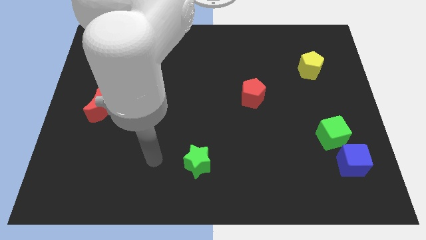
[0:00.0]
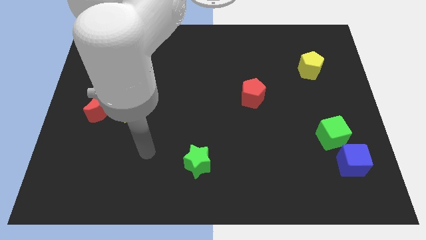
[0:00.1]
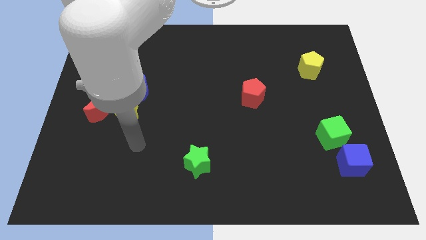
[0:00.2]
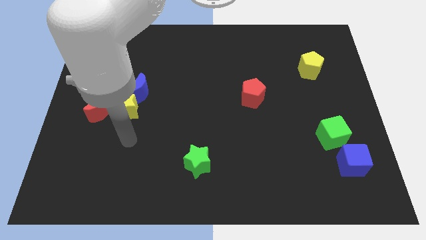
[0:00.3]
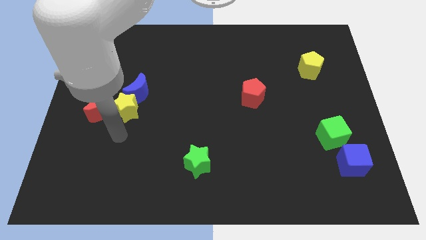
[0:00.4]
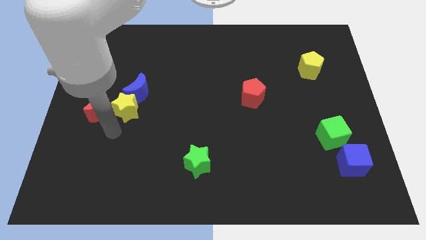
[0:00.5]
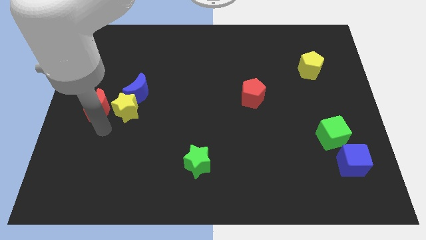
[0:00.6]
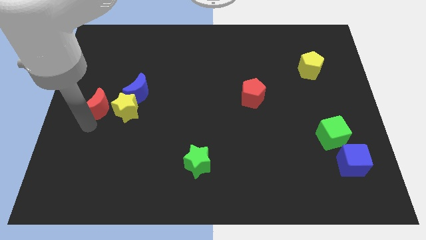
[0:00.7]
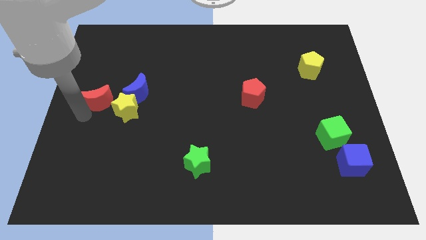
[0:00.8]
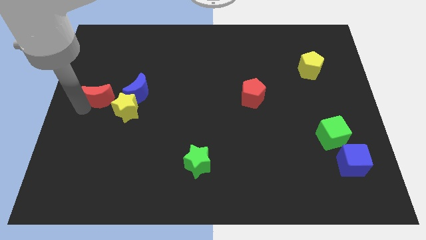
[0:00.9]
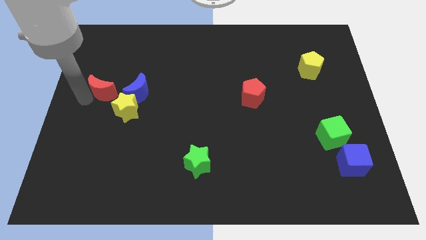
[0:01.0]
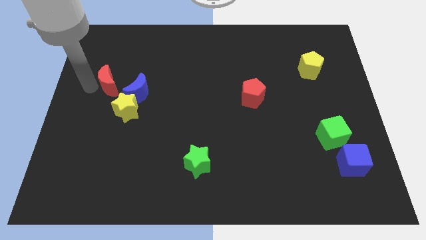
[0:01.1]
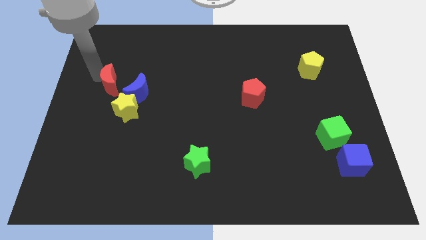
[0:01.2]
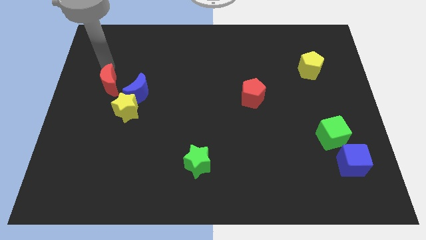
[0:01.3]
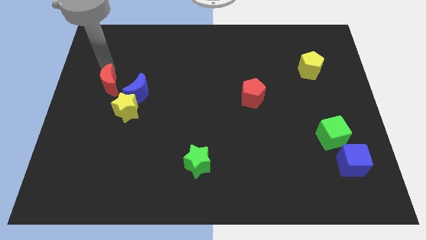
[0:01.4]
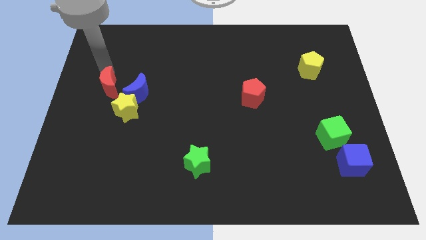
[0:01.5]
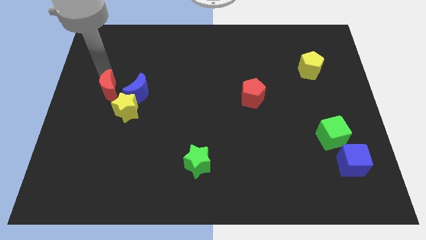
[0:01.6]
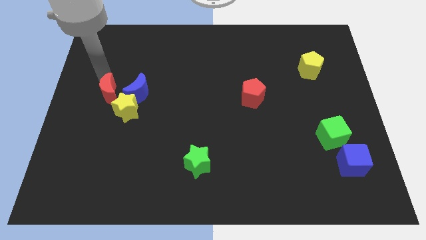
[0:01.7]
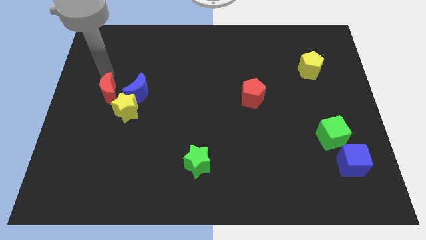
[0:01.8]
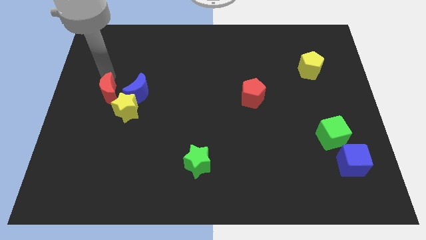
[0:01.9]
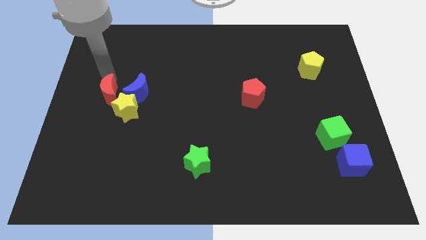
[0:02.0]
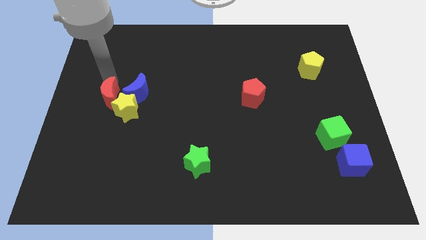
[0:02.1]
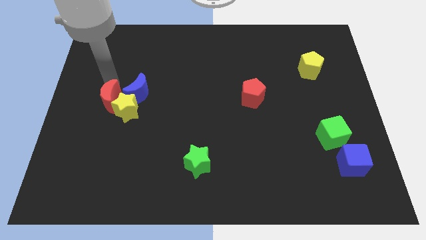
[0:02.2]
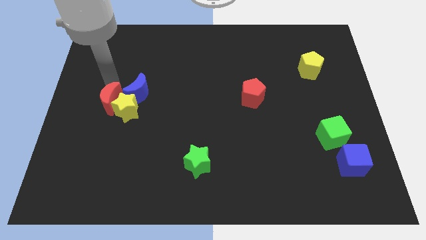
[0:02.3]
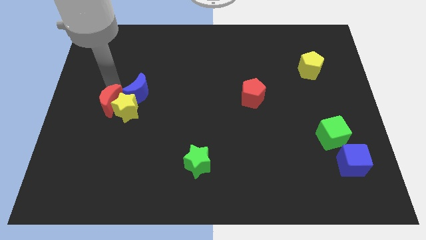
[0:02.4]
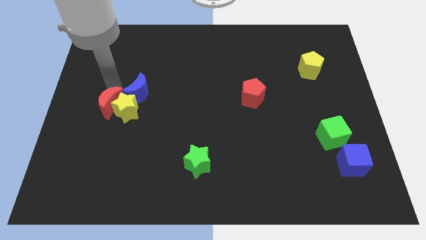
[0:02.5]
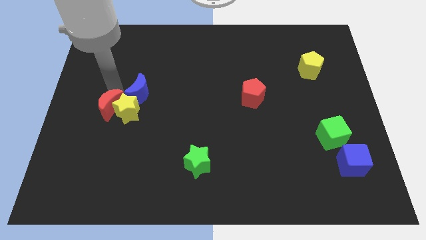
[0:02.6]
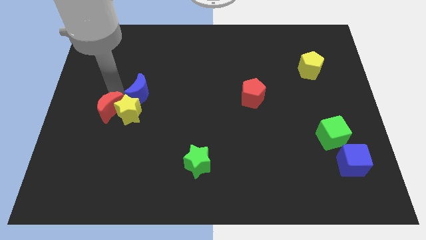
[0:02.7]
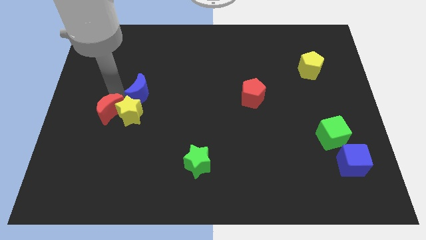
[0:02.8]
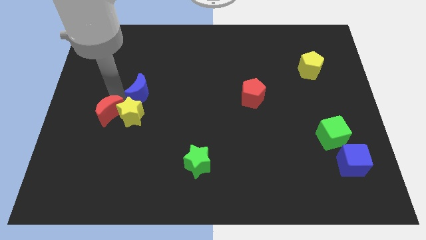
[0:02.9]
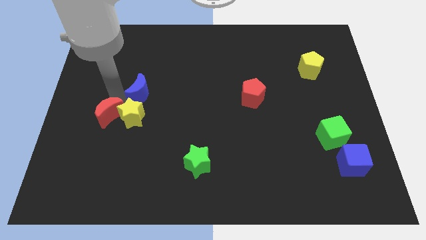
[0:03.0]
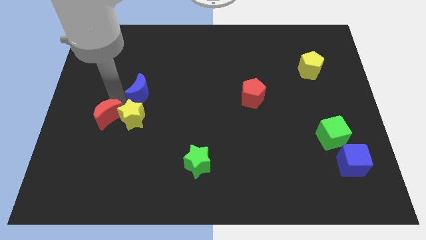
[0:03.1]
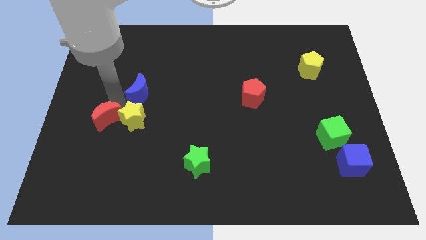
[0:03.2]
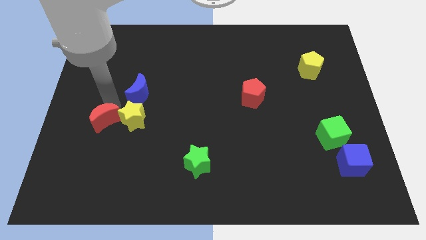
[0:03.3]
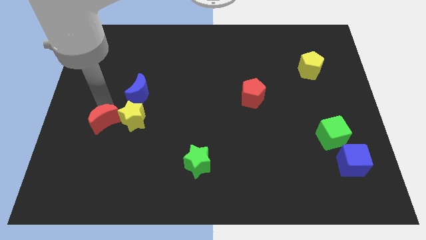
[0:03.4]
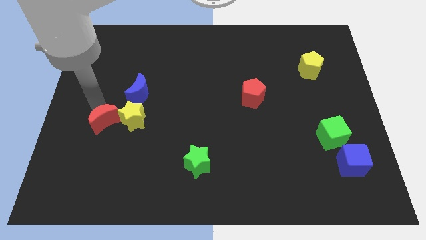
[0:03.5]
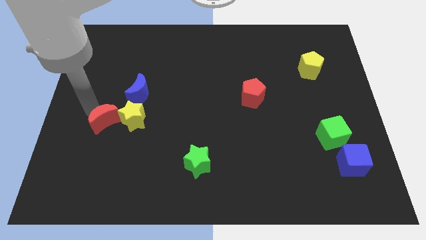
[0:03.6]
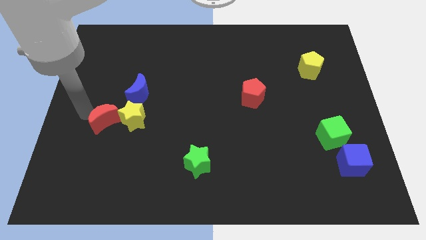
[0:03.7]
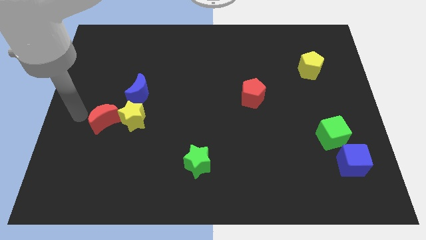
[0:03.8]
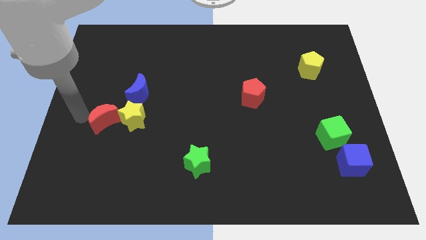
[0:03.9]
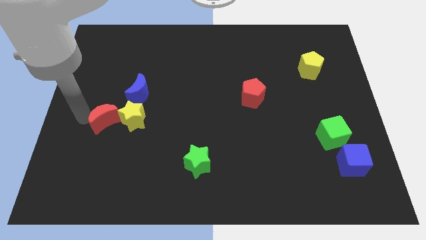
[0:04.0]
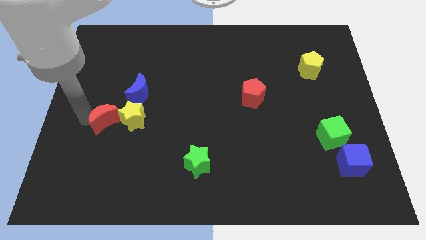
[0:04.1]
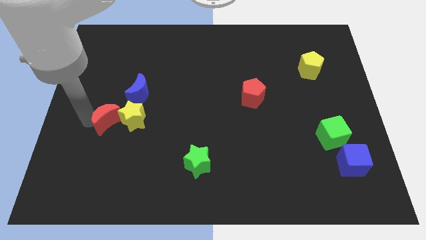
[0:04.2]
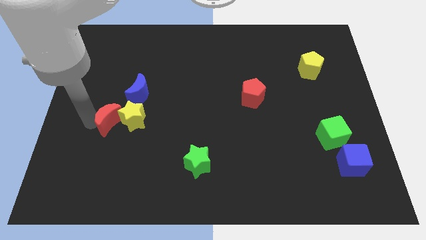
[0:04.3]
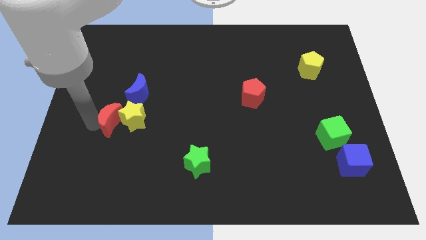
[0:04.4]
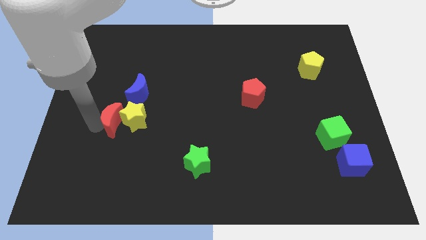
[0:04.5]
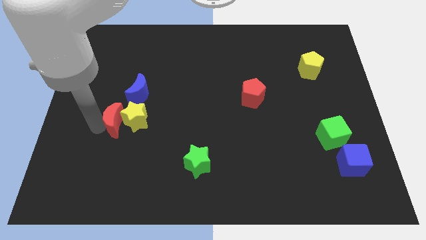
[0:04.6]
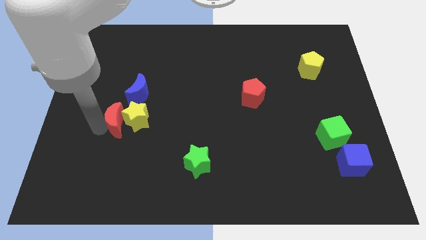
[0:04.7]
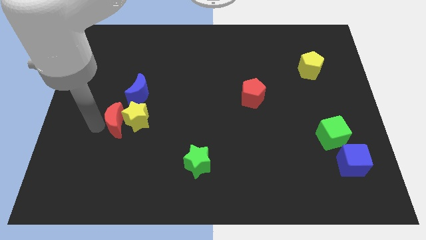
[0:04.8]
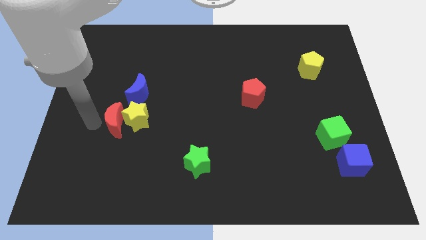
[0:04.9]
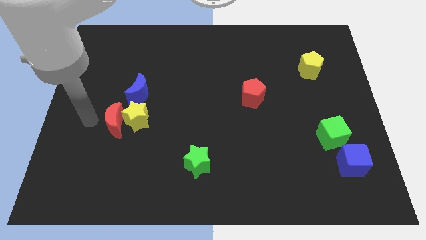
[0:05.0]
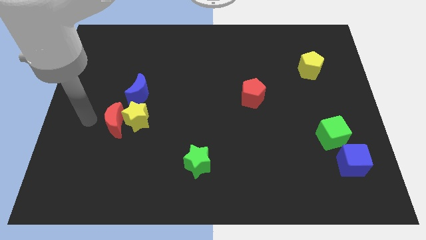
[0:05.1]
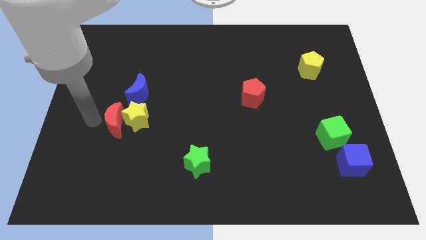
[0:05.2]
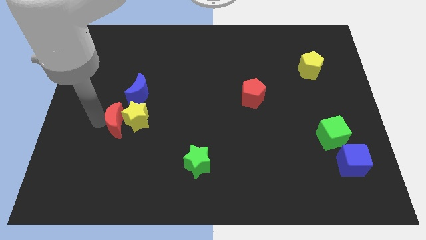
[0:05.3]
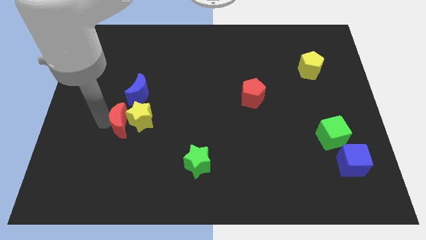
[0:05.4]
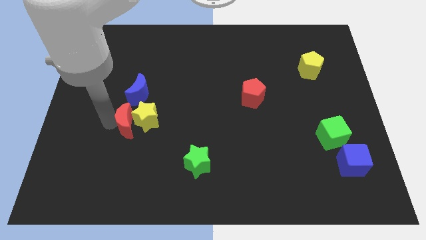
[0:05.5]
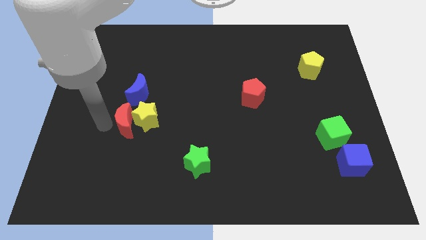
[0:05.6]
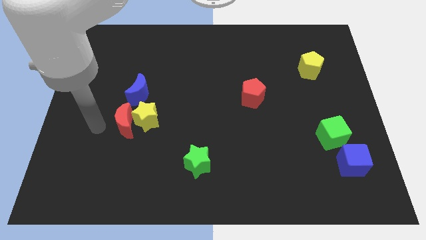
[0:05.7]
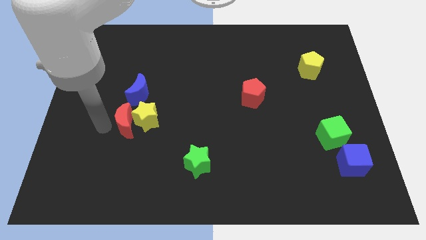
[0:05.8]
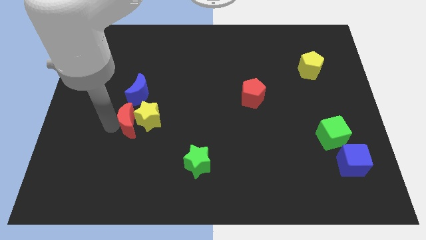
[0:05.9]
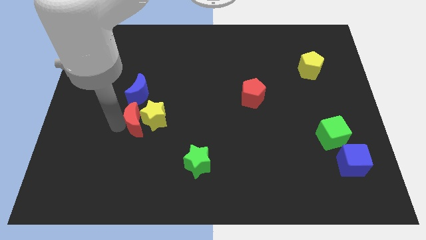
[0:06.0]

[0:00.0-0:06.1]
slightly push the red moon to the right

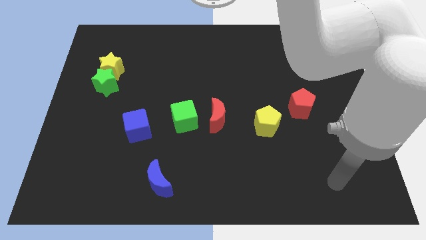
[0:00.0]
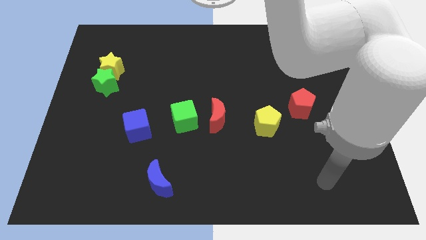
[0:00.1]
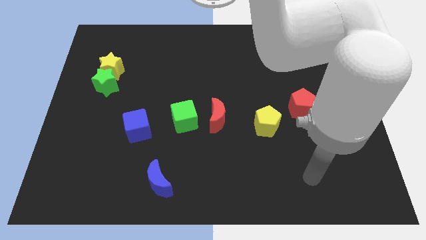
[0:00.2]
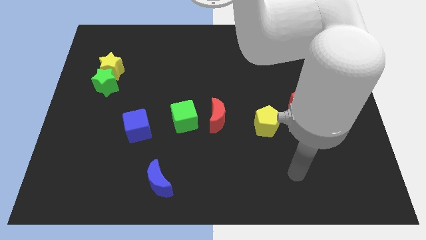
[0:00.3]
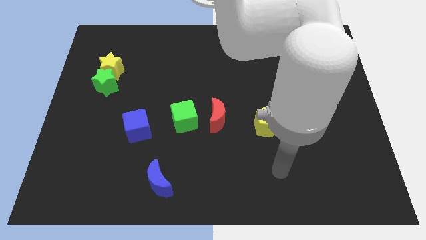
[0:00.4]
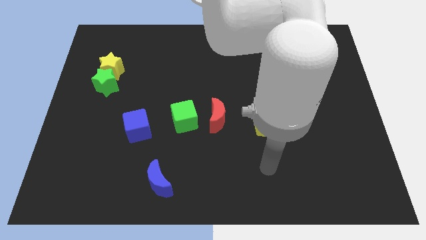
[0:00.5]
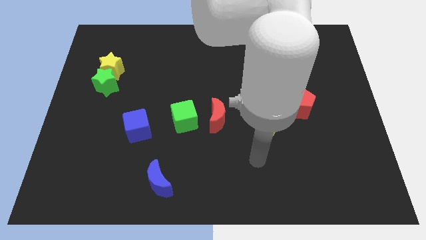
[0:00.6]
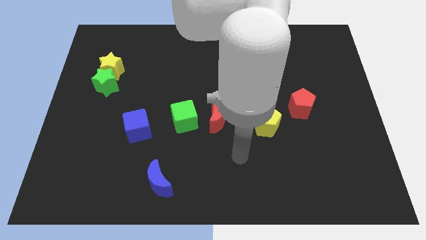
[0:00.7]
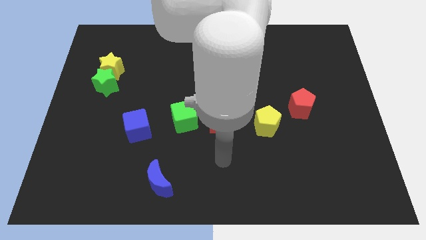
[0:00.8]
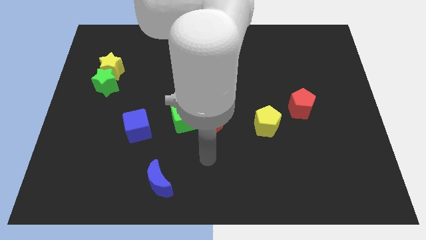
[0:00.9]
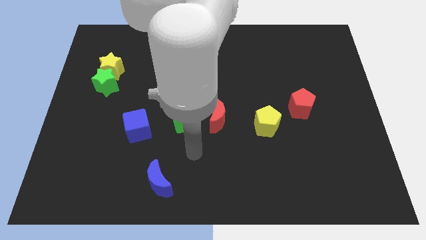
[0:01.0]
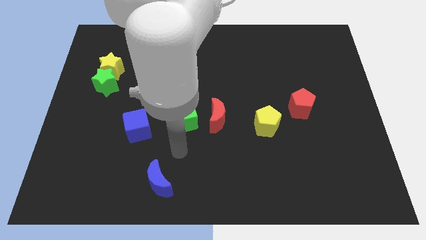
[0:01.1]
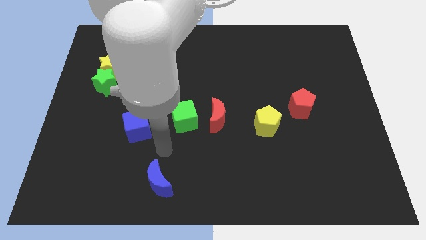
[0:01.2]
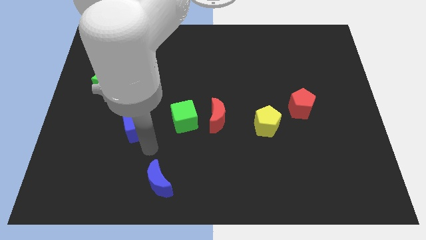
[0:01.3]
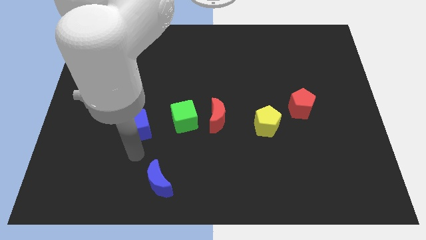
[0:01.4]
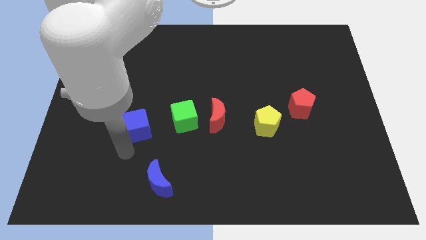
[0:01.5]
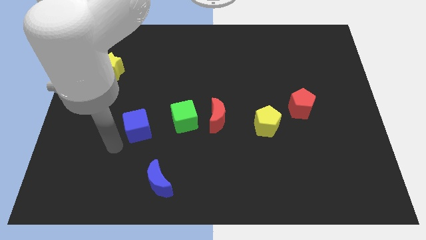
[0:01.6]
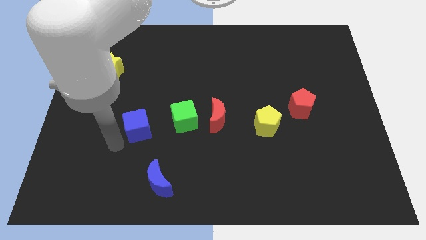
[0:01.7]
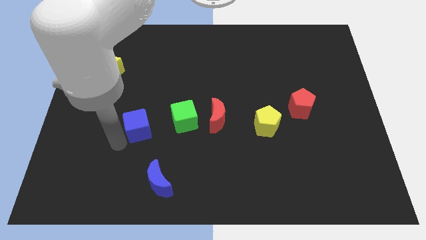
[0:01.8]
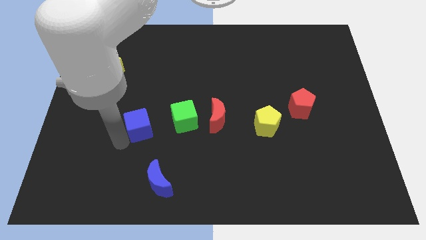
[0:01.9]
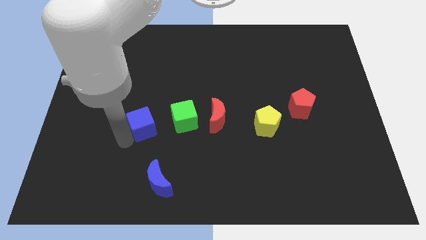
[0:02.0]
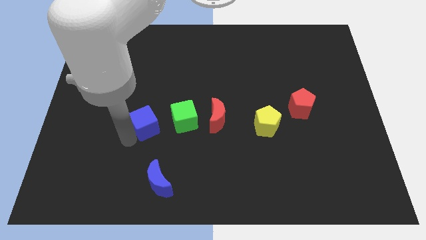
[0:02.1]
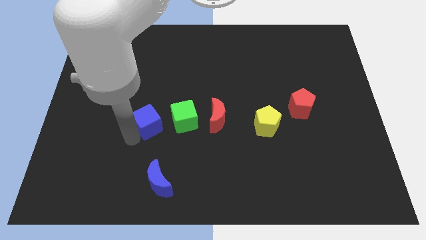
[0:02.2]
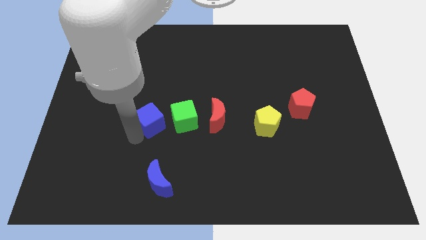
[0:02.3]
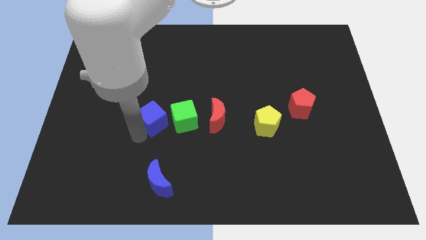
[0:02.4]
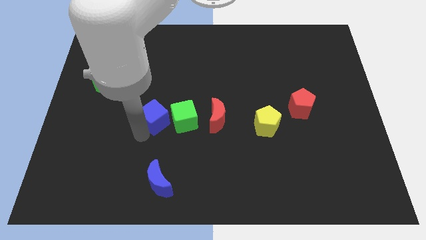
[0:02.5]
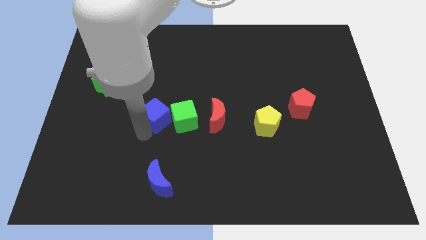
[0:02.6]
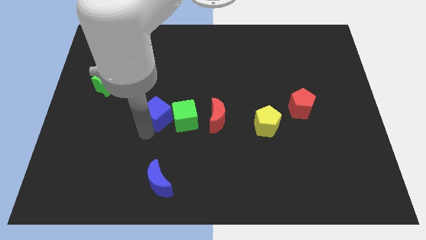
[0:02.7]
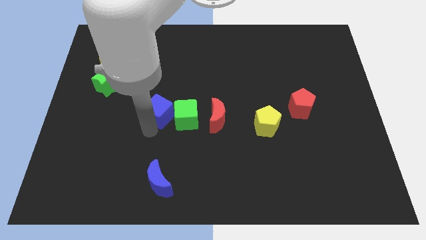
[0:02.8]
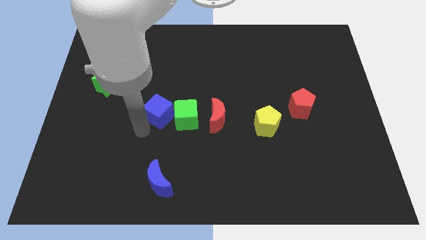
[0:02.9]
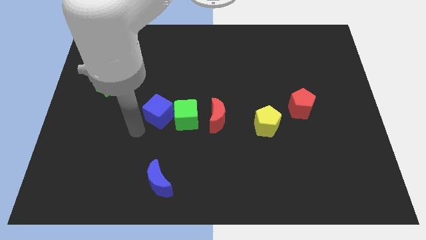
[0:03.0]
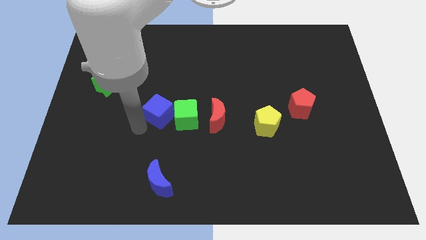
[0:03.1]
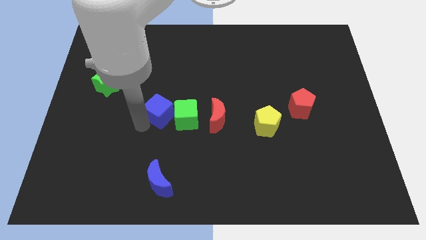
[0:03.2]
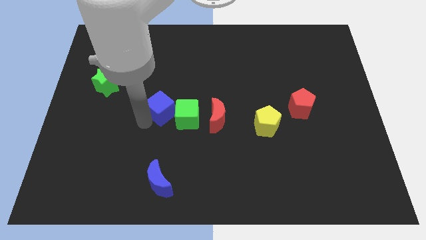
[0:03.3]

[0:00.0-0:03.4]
move the blue cube somewhat diagonally upwards and to the right
